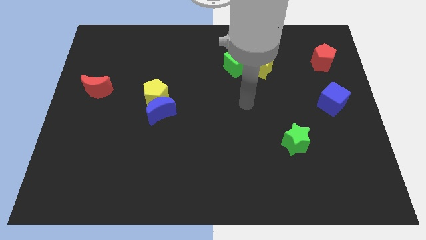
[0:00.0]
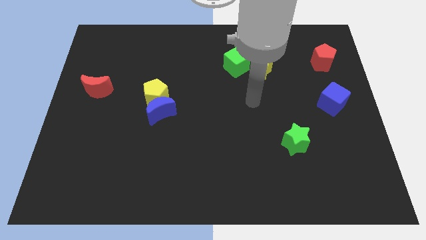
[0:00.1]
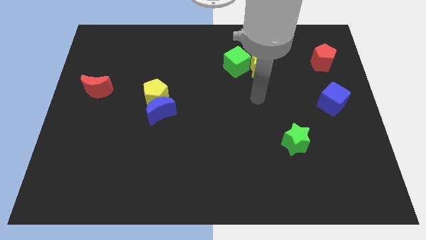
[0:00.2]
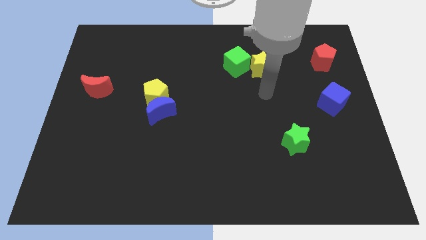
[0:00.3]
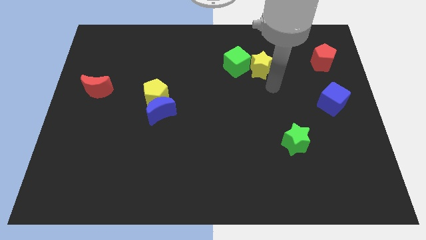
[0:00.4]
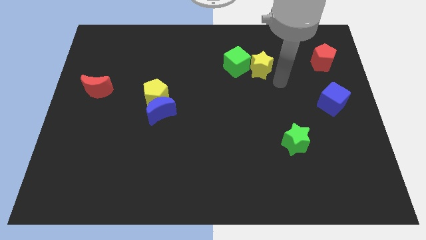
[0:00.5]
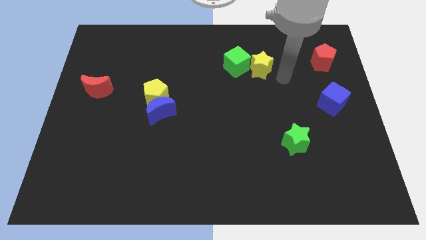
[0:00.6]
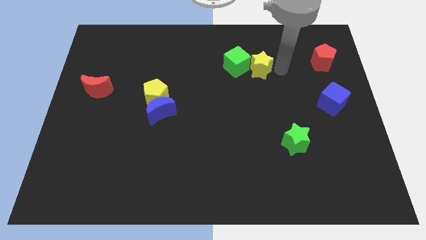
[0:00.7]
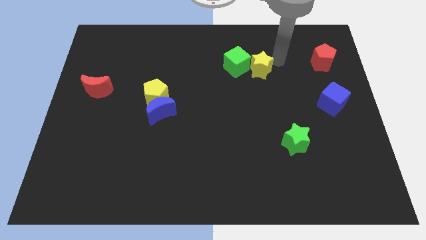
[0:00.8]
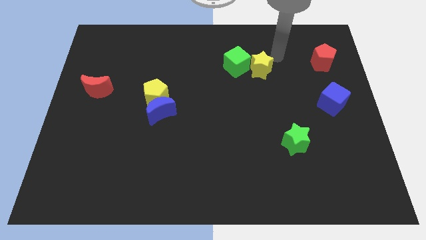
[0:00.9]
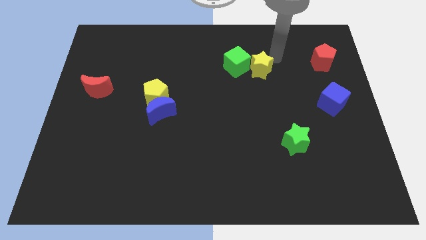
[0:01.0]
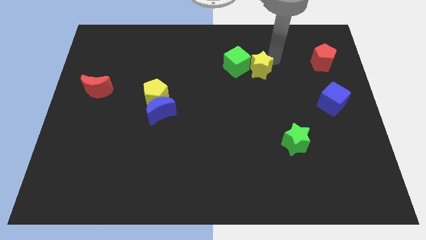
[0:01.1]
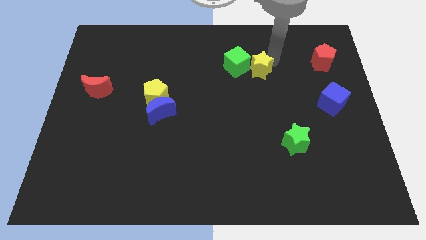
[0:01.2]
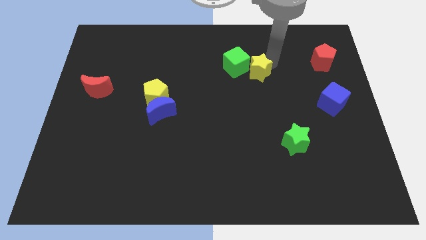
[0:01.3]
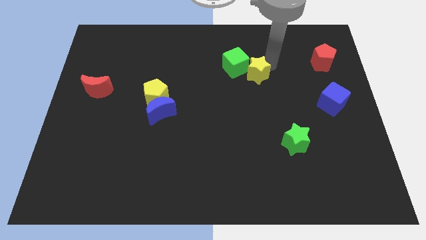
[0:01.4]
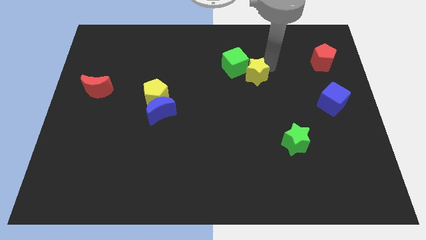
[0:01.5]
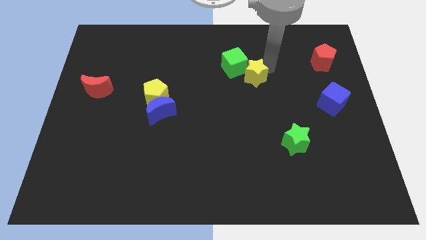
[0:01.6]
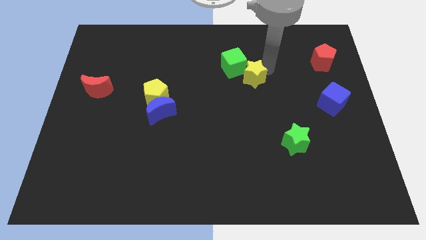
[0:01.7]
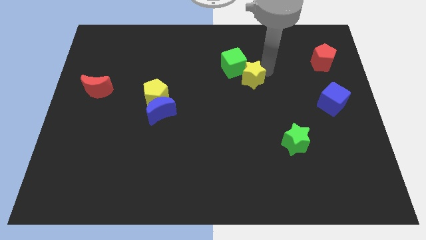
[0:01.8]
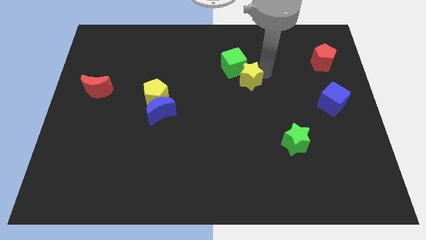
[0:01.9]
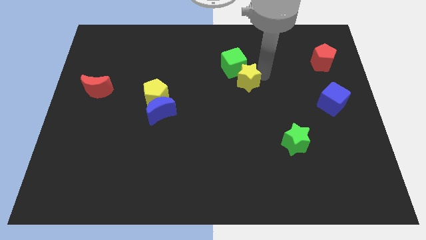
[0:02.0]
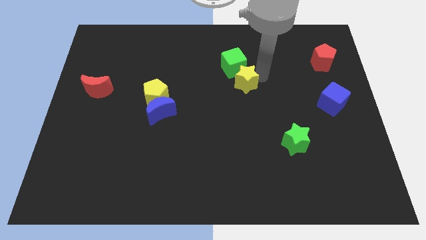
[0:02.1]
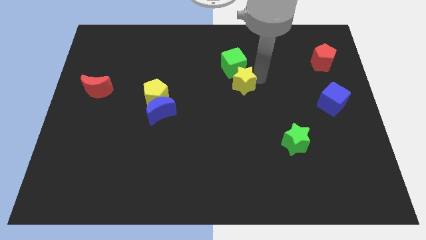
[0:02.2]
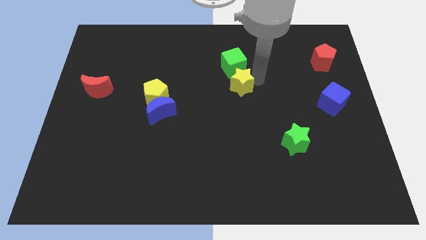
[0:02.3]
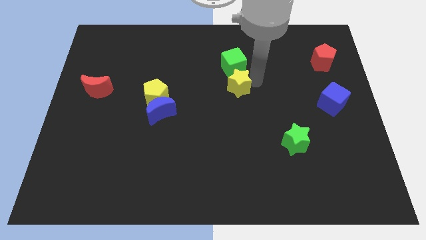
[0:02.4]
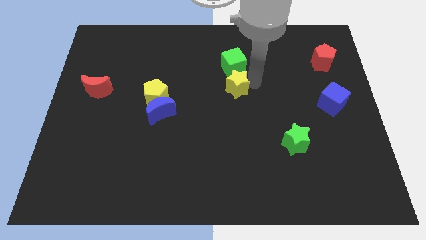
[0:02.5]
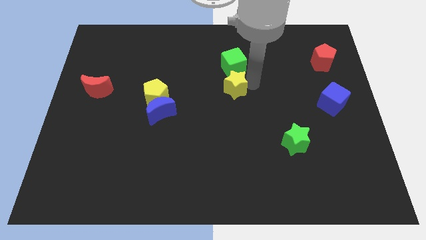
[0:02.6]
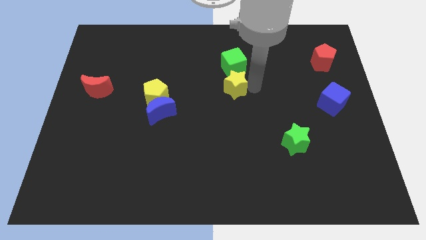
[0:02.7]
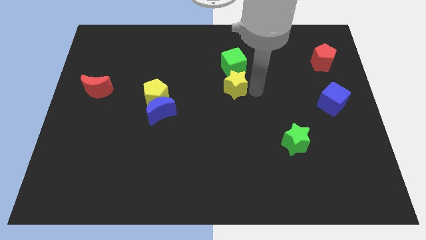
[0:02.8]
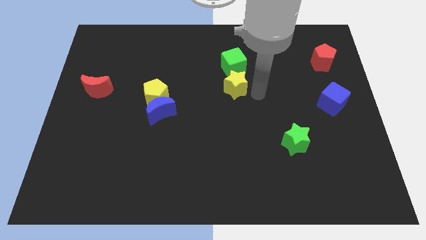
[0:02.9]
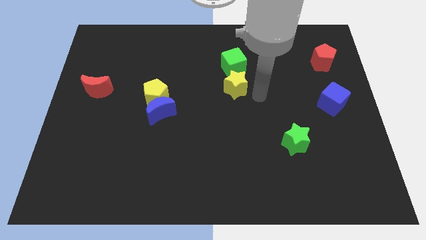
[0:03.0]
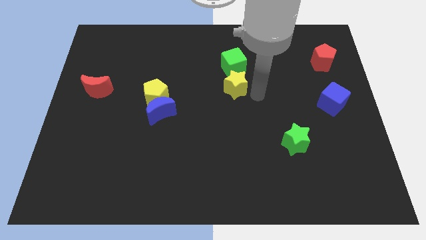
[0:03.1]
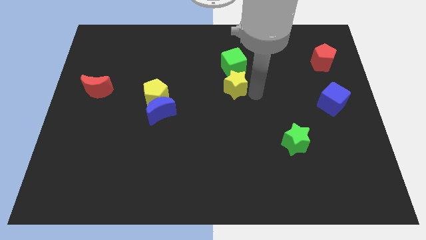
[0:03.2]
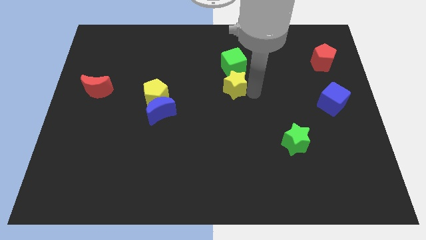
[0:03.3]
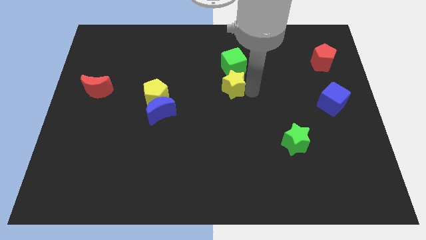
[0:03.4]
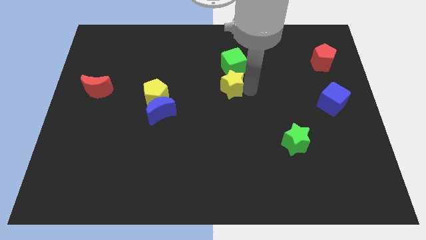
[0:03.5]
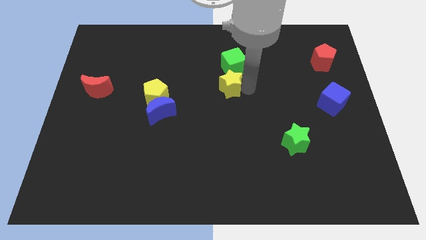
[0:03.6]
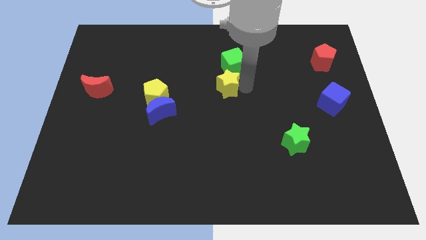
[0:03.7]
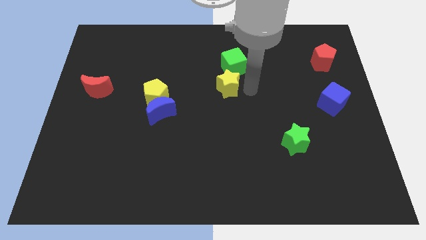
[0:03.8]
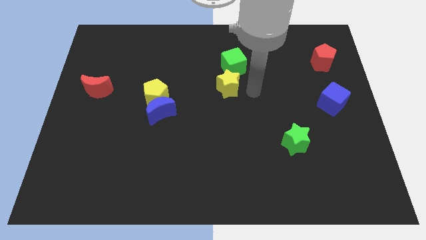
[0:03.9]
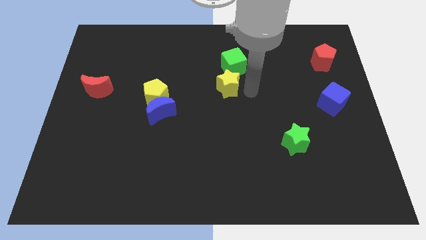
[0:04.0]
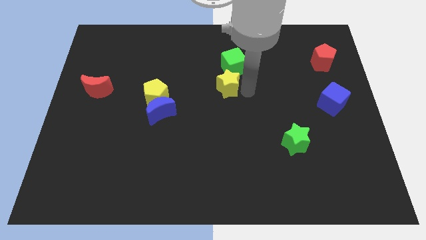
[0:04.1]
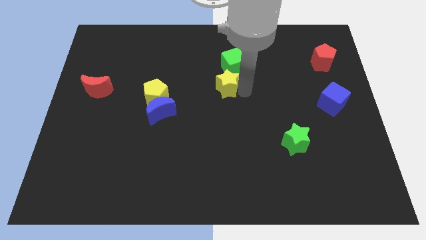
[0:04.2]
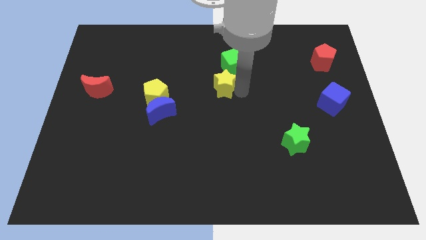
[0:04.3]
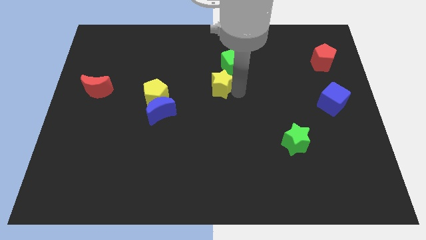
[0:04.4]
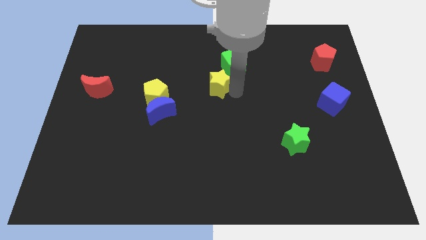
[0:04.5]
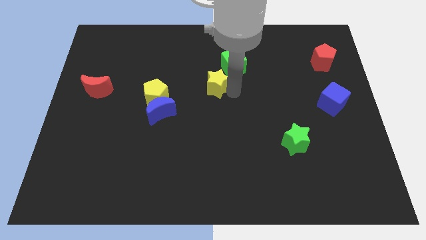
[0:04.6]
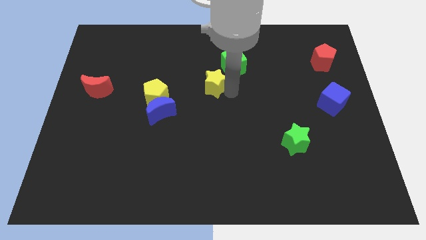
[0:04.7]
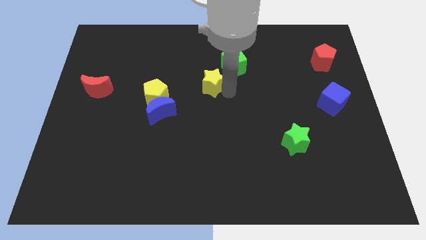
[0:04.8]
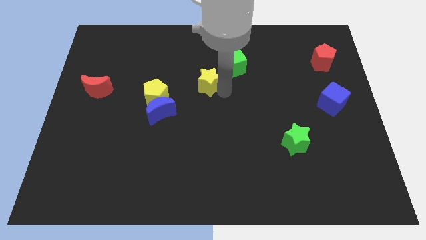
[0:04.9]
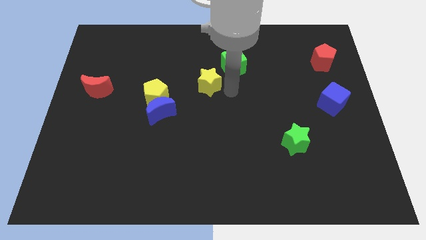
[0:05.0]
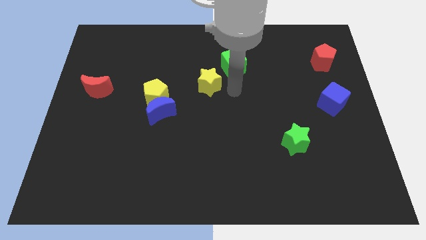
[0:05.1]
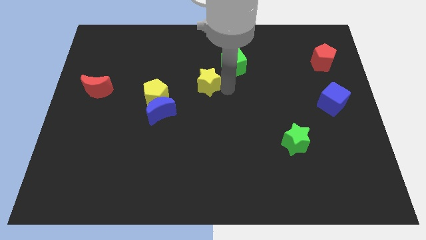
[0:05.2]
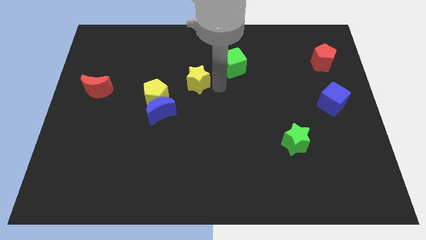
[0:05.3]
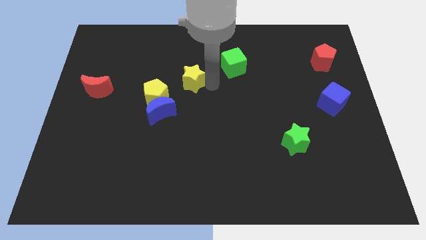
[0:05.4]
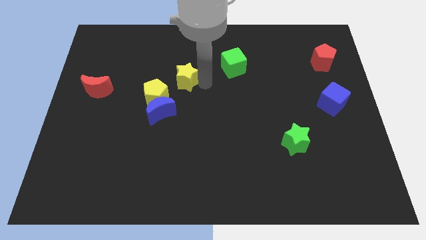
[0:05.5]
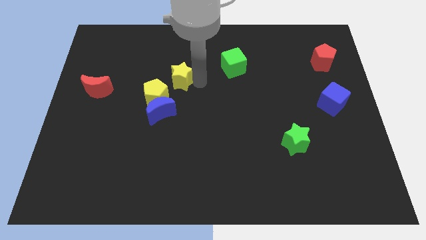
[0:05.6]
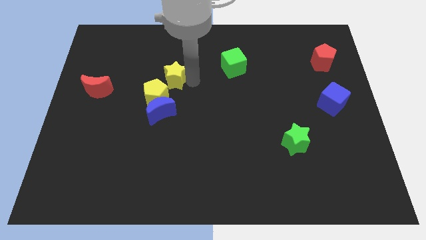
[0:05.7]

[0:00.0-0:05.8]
push the yellow star left

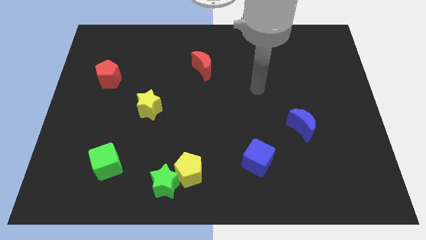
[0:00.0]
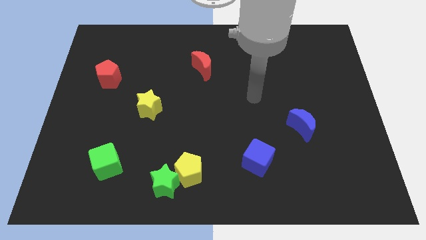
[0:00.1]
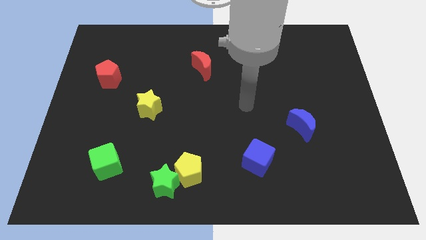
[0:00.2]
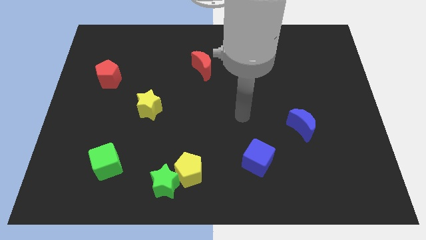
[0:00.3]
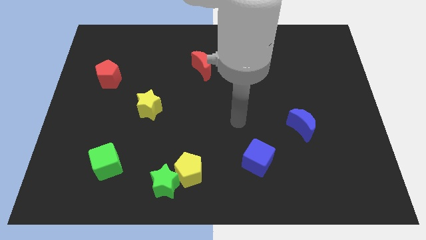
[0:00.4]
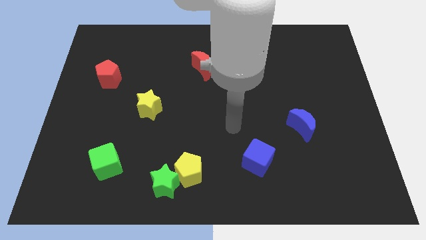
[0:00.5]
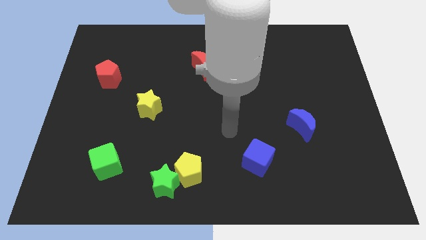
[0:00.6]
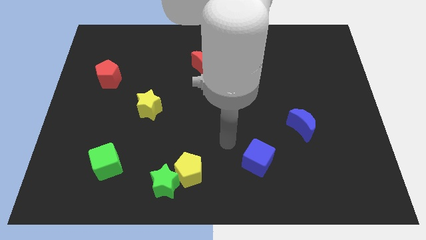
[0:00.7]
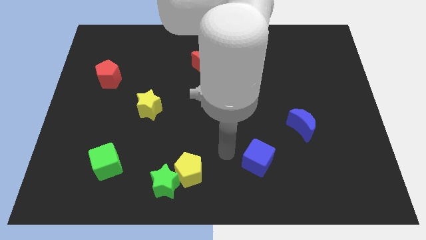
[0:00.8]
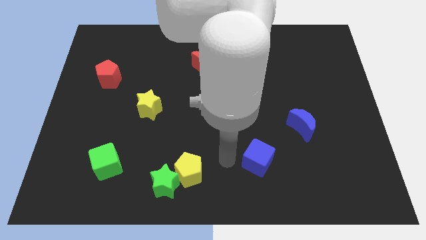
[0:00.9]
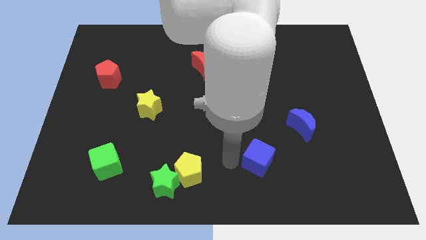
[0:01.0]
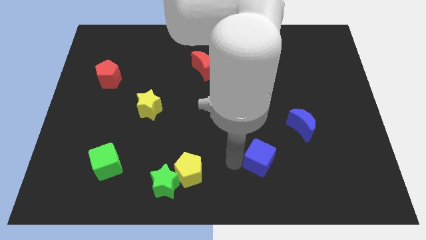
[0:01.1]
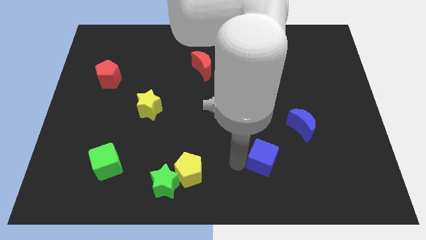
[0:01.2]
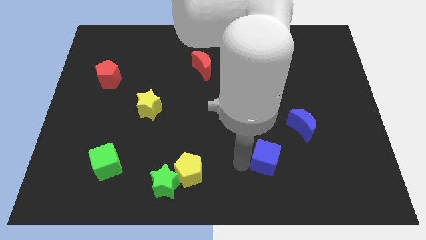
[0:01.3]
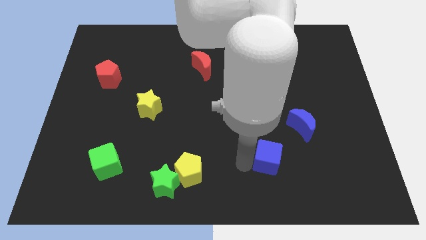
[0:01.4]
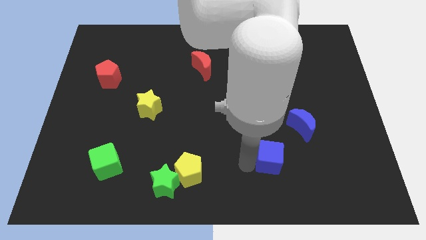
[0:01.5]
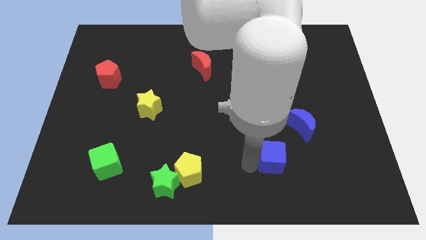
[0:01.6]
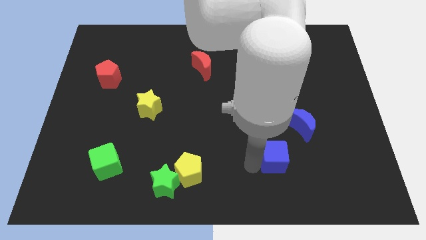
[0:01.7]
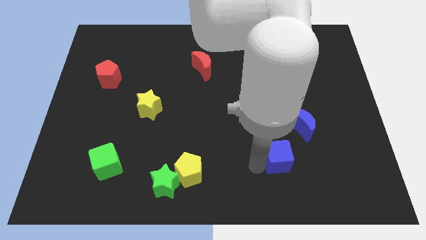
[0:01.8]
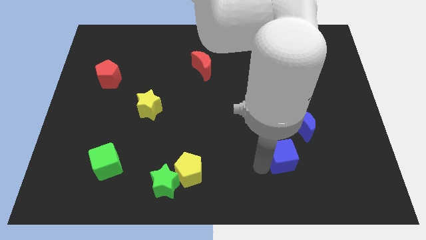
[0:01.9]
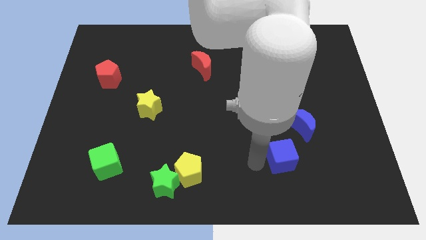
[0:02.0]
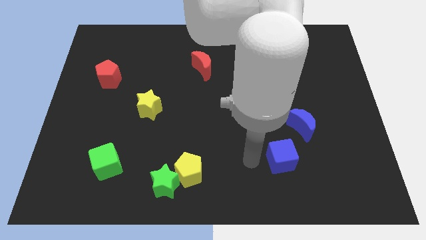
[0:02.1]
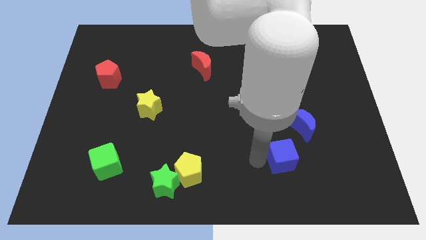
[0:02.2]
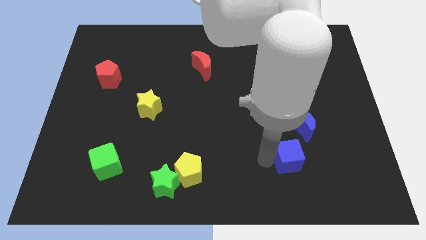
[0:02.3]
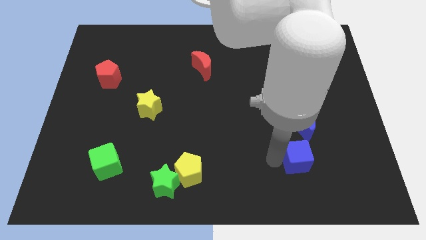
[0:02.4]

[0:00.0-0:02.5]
push the blue cube to the right slightly
